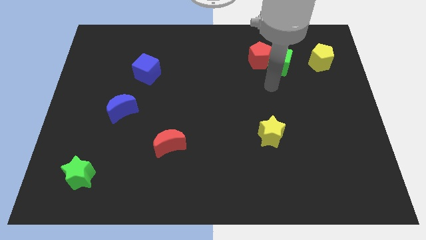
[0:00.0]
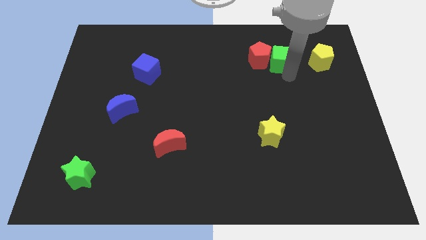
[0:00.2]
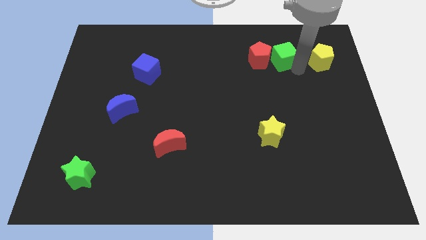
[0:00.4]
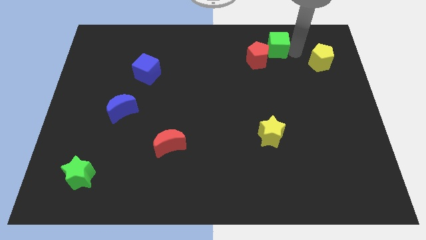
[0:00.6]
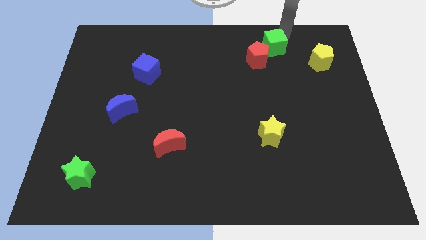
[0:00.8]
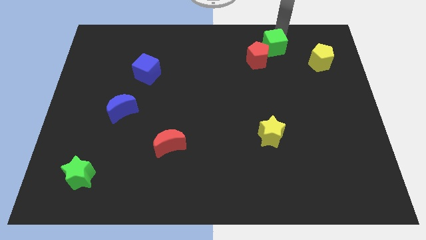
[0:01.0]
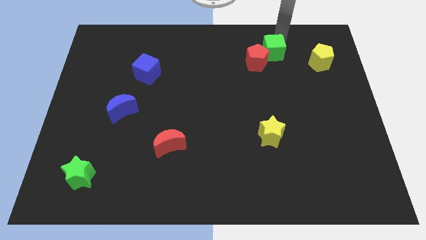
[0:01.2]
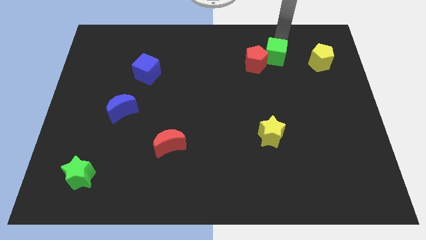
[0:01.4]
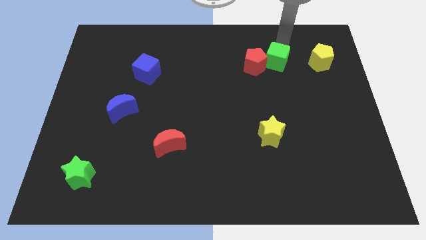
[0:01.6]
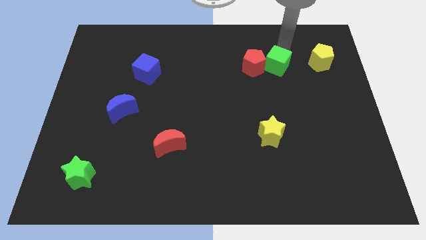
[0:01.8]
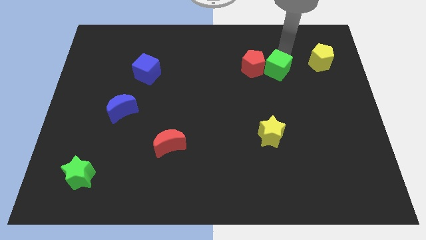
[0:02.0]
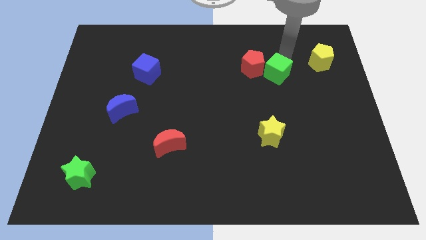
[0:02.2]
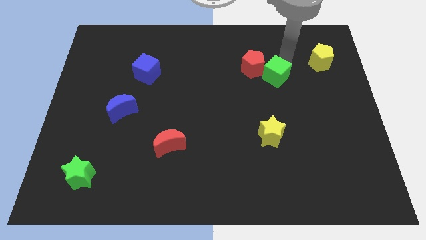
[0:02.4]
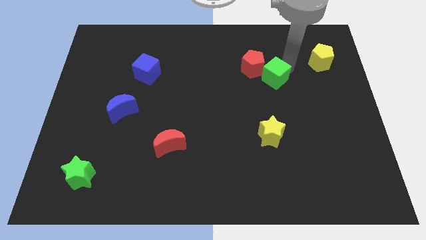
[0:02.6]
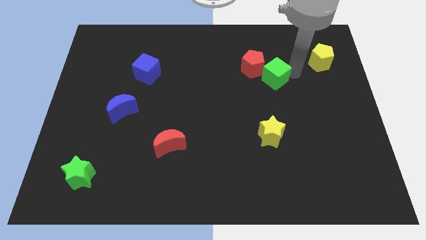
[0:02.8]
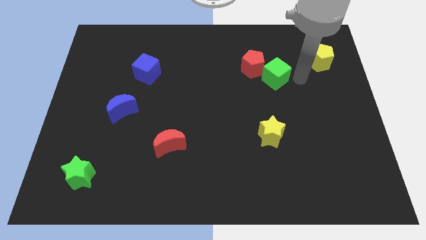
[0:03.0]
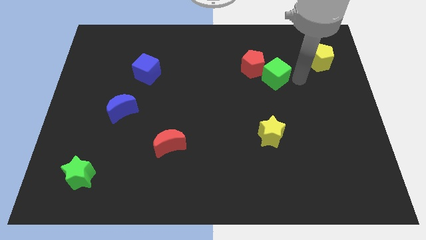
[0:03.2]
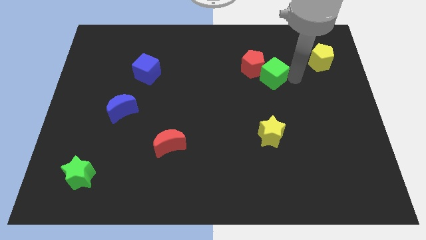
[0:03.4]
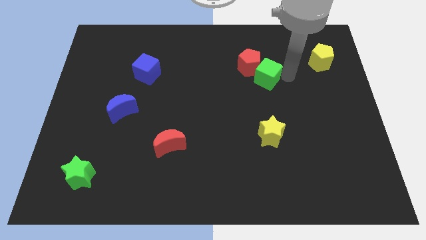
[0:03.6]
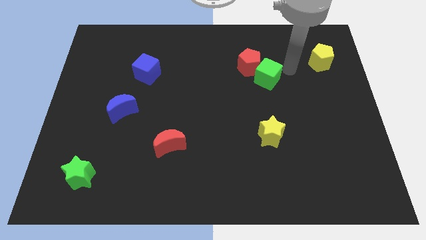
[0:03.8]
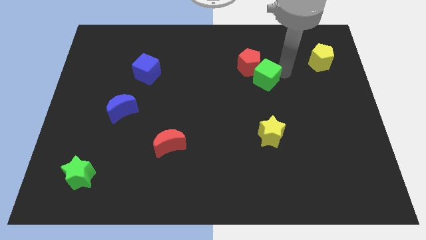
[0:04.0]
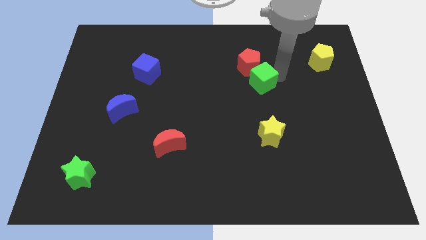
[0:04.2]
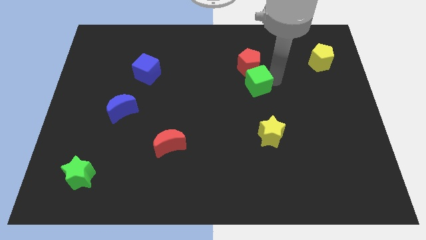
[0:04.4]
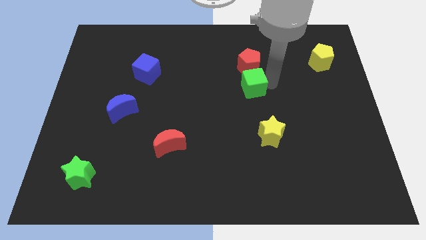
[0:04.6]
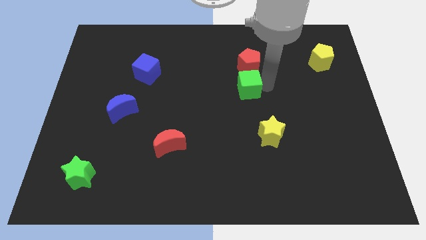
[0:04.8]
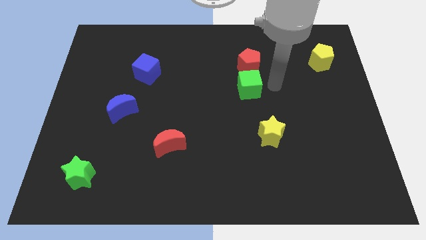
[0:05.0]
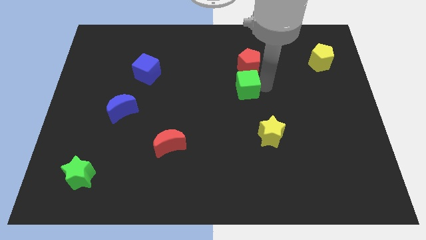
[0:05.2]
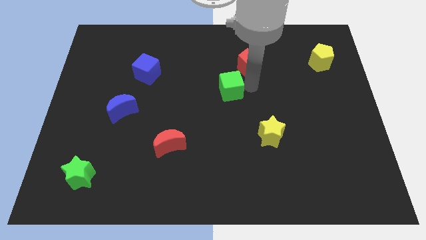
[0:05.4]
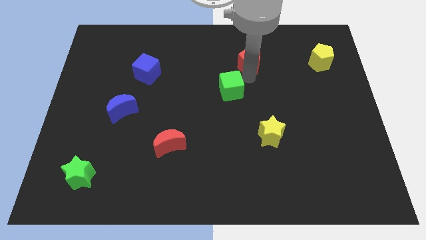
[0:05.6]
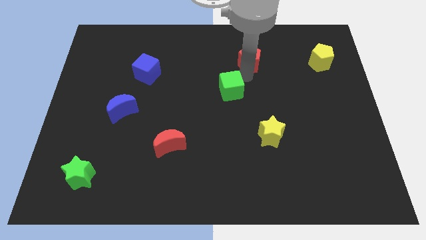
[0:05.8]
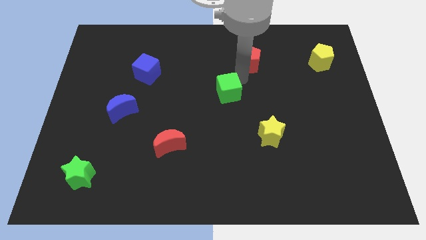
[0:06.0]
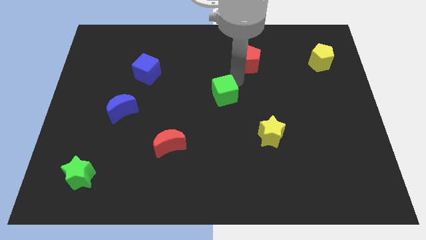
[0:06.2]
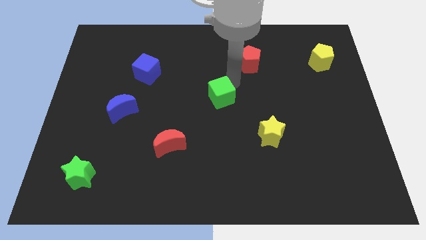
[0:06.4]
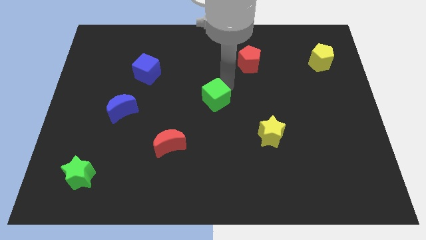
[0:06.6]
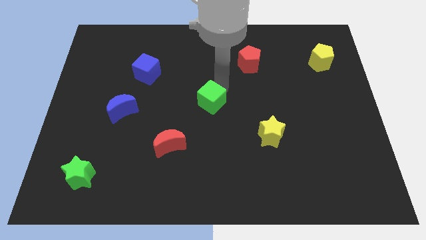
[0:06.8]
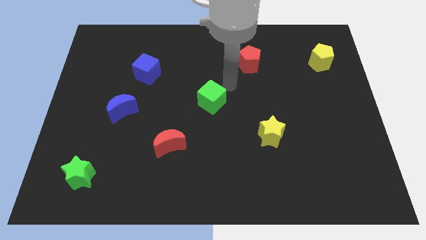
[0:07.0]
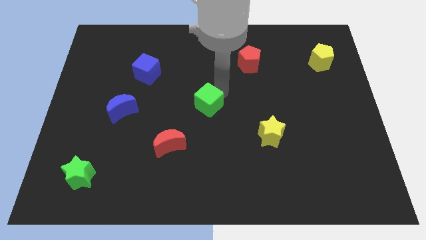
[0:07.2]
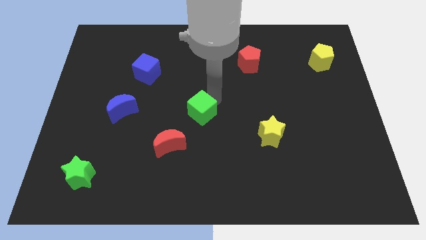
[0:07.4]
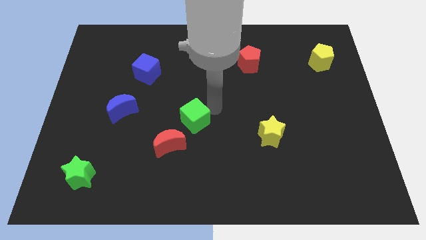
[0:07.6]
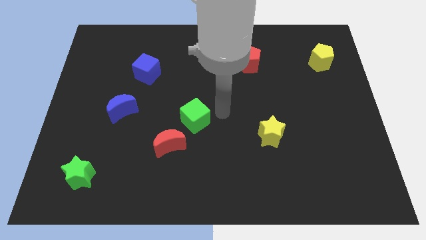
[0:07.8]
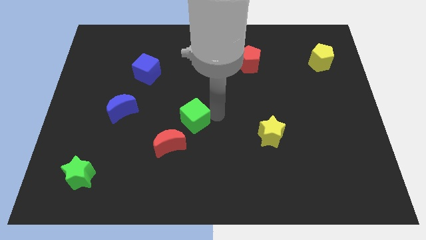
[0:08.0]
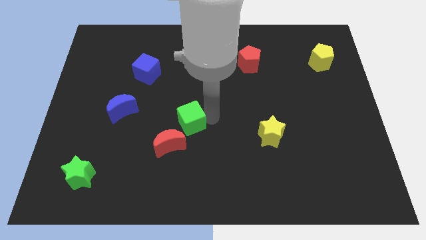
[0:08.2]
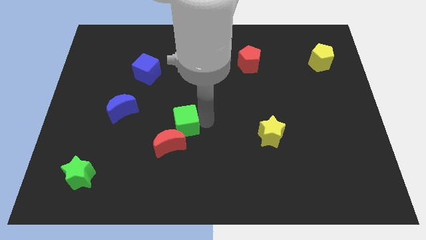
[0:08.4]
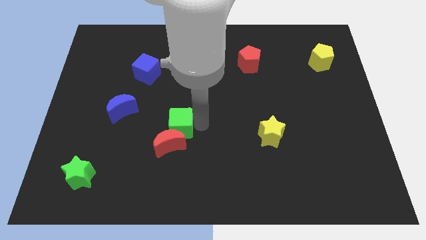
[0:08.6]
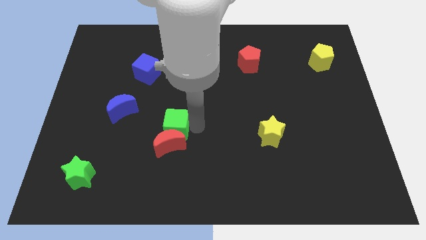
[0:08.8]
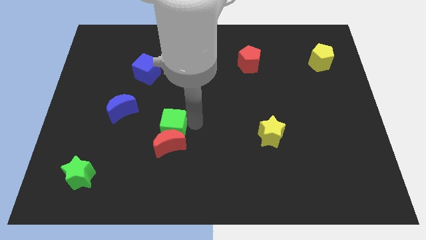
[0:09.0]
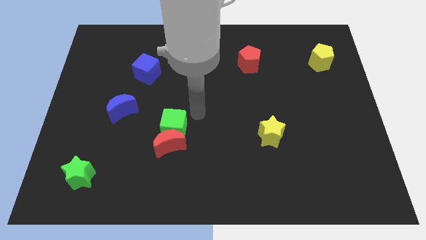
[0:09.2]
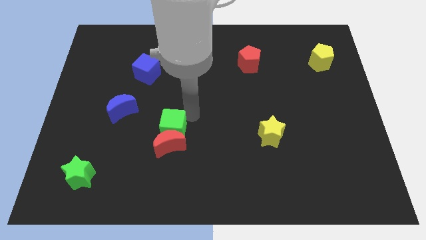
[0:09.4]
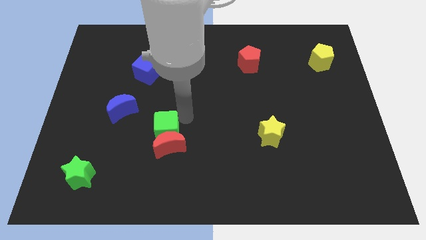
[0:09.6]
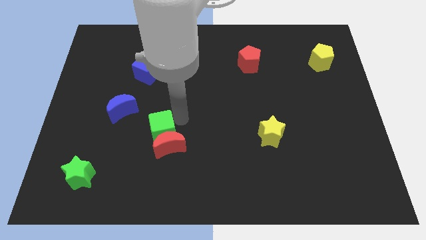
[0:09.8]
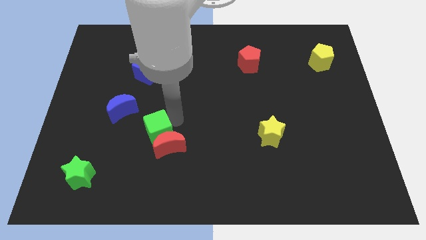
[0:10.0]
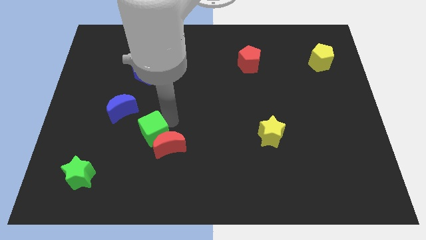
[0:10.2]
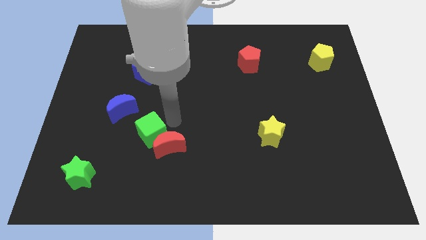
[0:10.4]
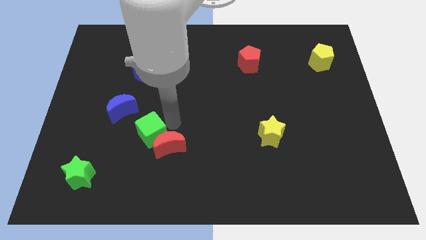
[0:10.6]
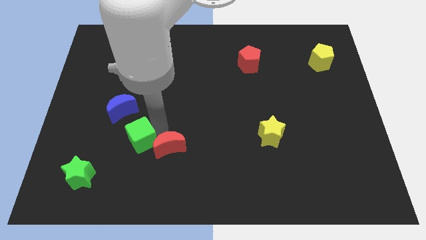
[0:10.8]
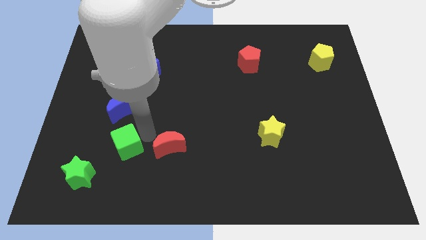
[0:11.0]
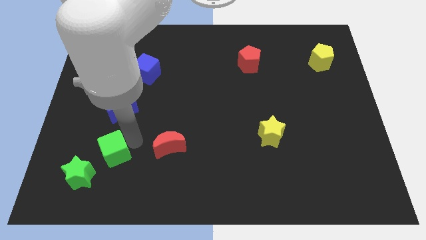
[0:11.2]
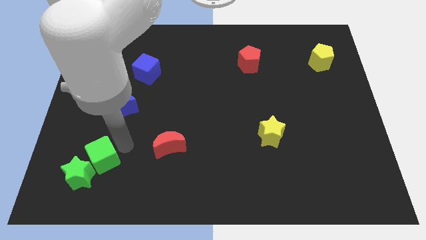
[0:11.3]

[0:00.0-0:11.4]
move the green cube next to the green star

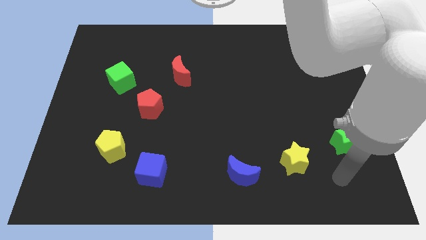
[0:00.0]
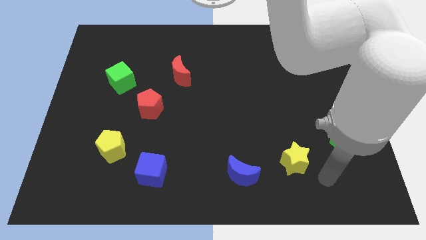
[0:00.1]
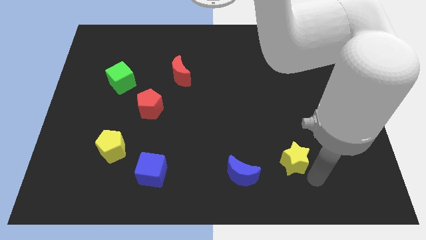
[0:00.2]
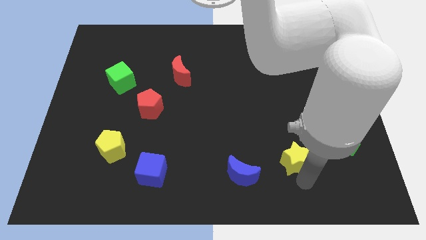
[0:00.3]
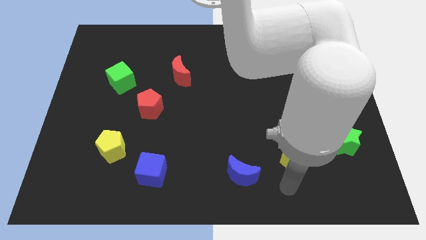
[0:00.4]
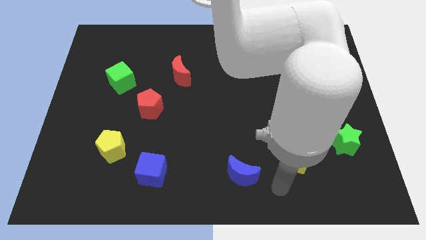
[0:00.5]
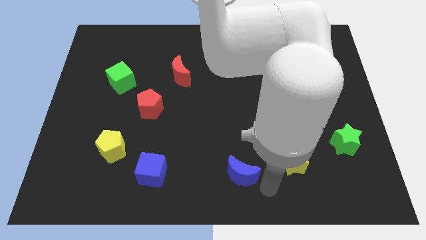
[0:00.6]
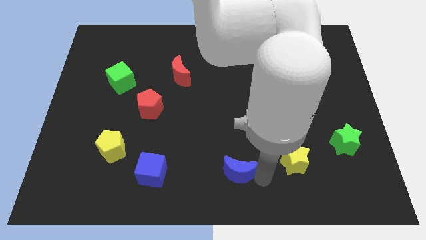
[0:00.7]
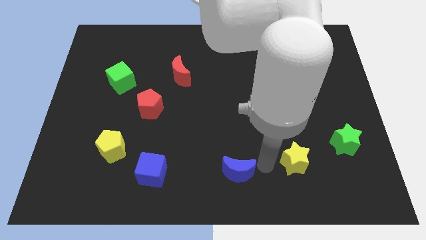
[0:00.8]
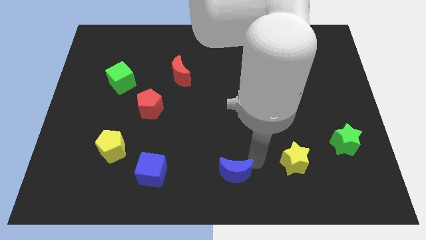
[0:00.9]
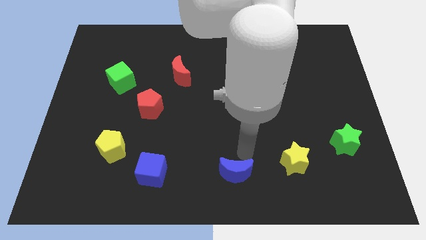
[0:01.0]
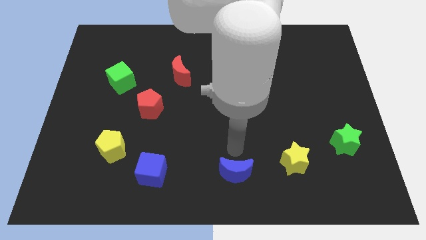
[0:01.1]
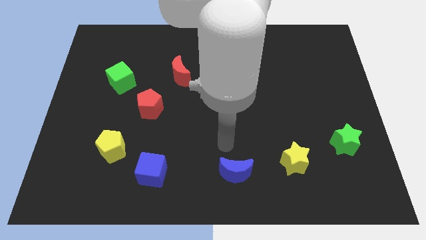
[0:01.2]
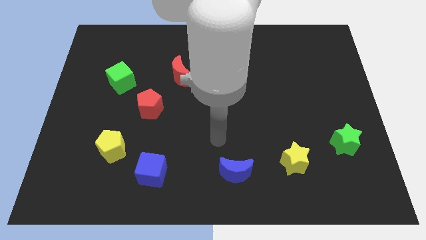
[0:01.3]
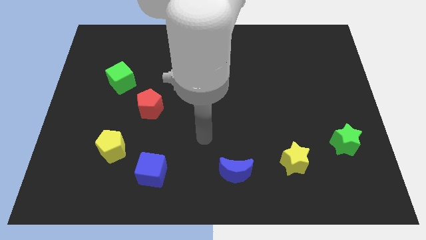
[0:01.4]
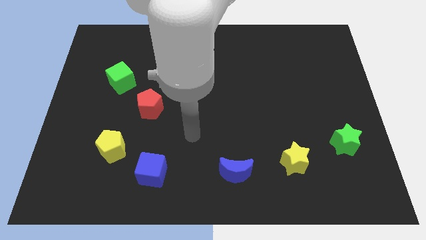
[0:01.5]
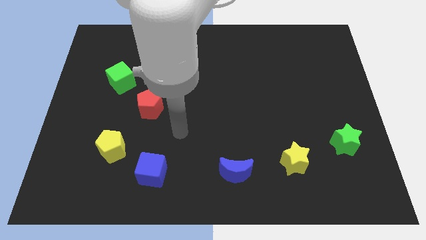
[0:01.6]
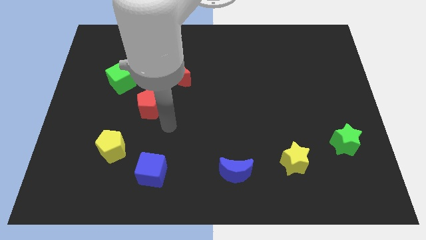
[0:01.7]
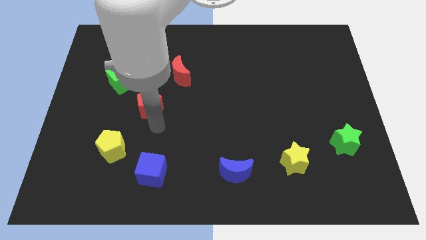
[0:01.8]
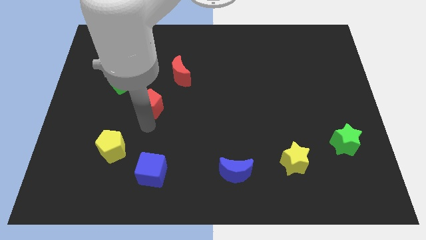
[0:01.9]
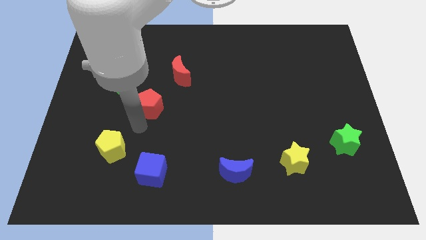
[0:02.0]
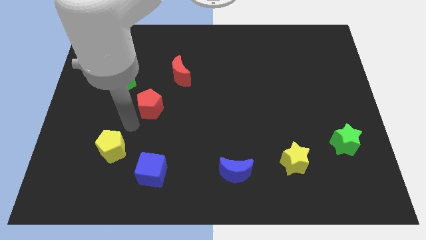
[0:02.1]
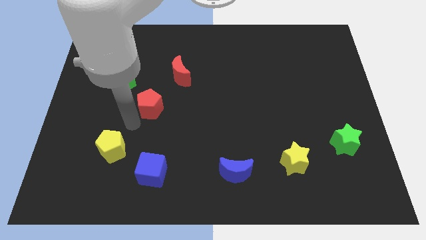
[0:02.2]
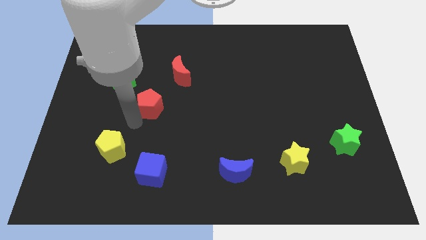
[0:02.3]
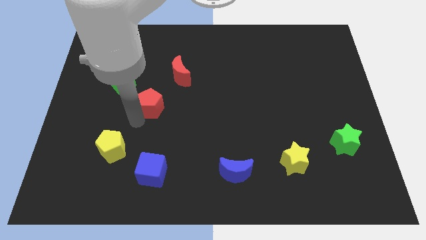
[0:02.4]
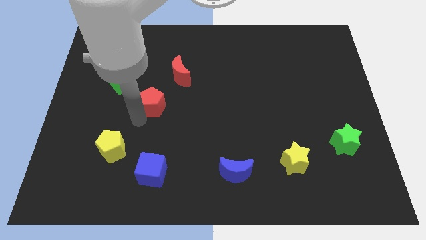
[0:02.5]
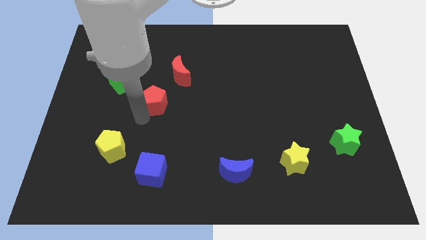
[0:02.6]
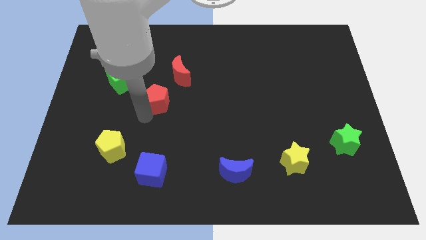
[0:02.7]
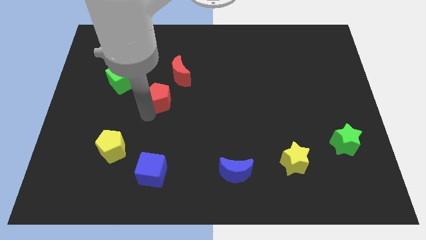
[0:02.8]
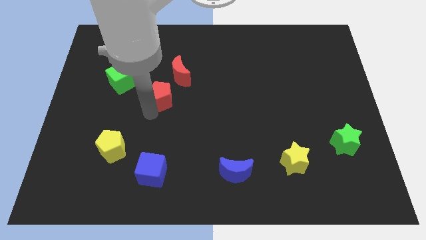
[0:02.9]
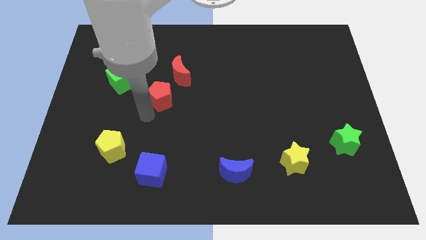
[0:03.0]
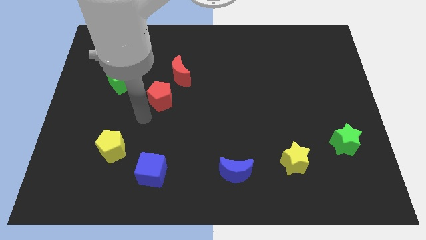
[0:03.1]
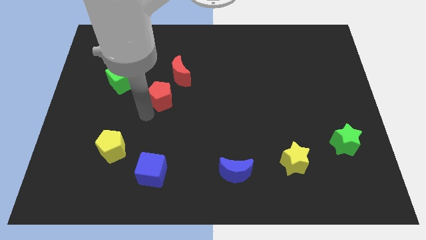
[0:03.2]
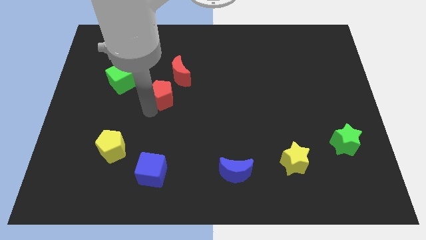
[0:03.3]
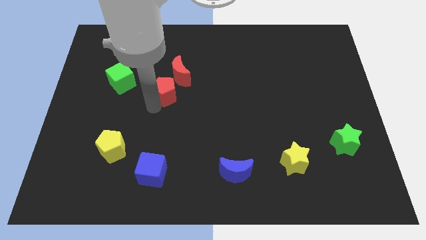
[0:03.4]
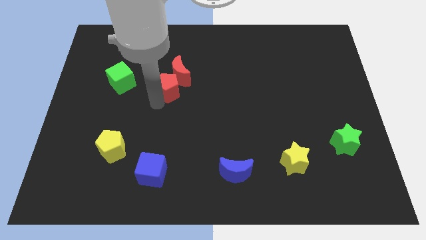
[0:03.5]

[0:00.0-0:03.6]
slide the red pentagon to the red moon
